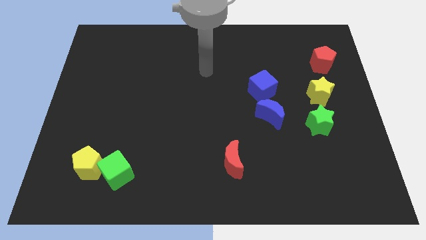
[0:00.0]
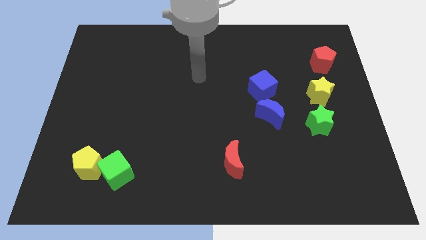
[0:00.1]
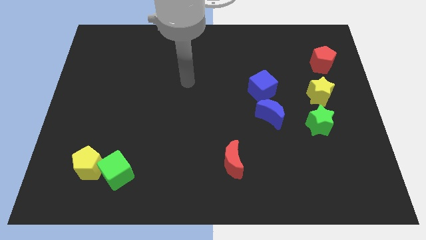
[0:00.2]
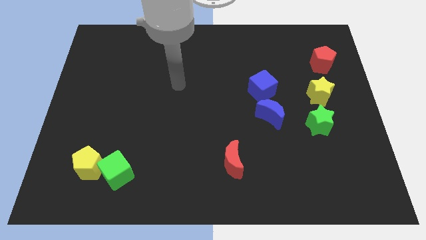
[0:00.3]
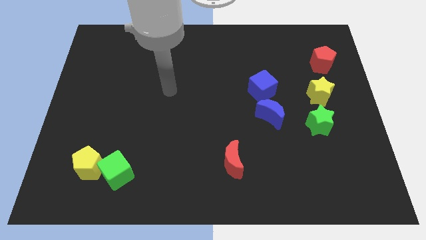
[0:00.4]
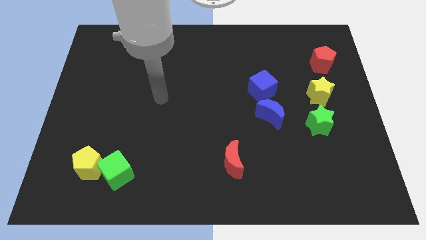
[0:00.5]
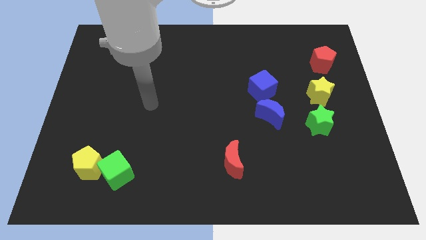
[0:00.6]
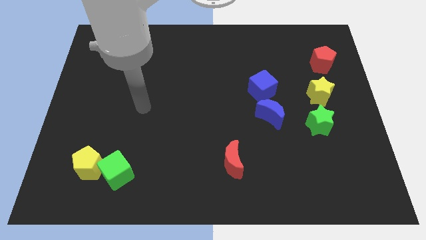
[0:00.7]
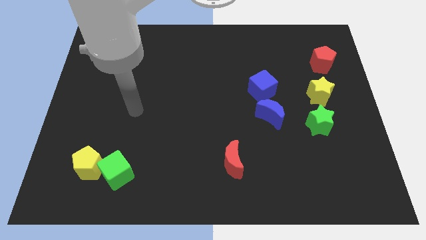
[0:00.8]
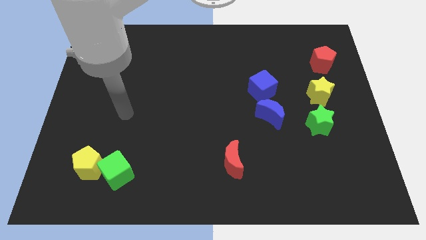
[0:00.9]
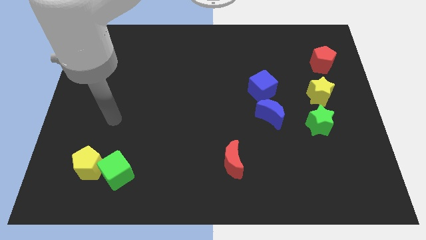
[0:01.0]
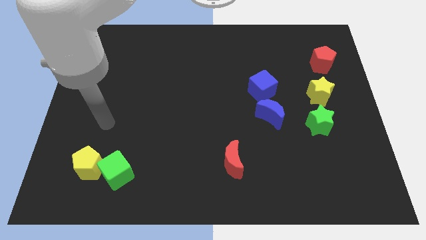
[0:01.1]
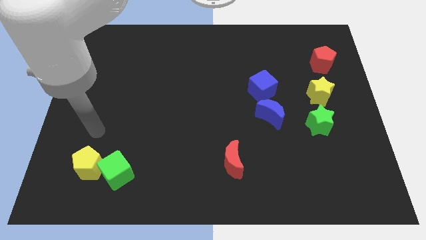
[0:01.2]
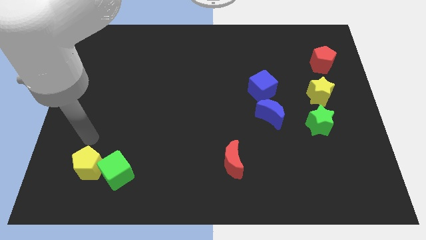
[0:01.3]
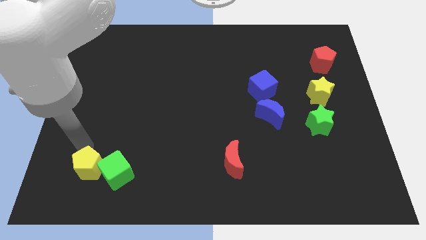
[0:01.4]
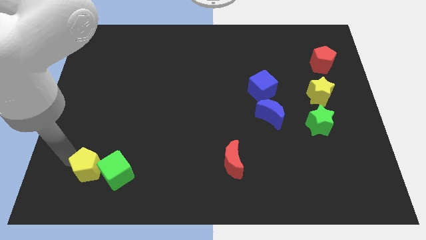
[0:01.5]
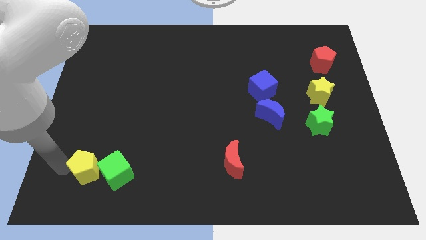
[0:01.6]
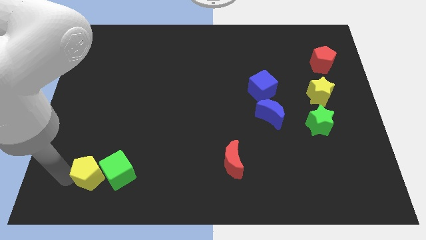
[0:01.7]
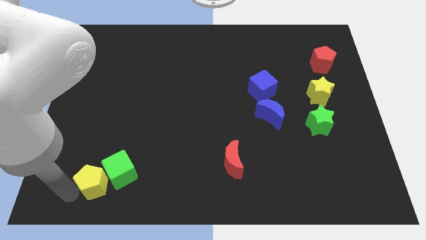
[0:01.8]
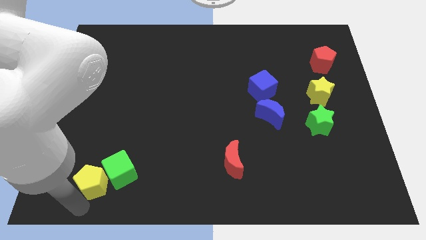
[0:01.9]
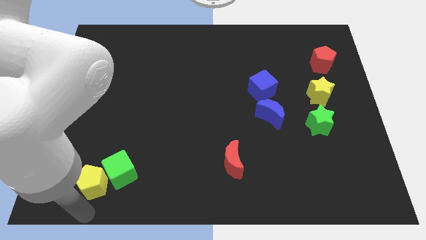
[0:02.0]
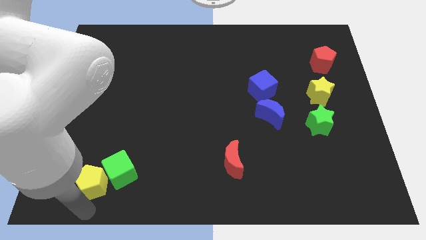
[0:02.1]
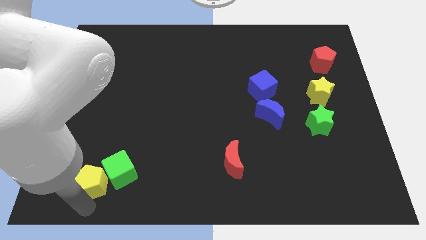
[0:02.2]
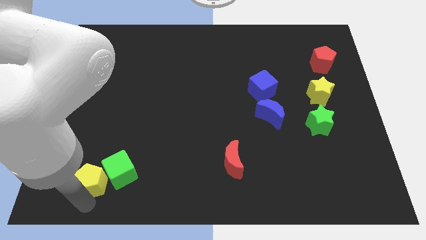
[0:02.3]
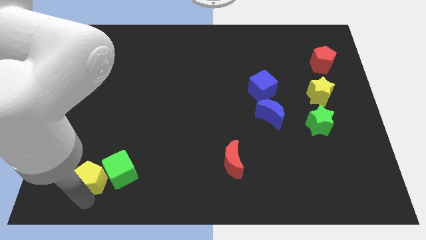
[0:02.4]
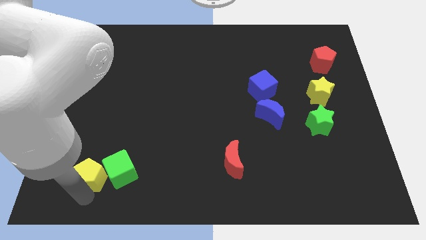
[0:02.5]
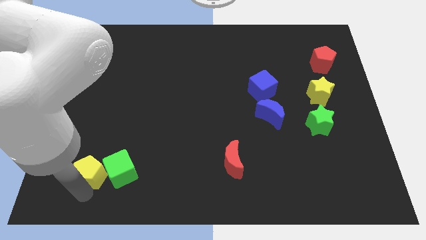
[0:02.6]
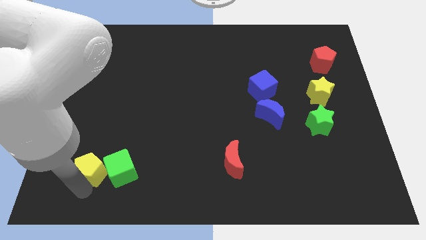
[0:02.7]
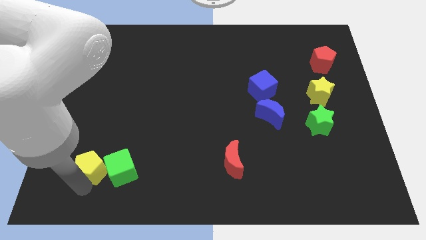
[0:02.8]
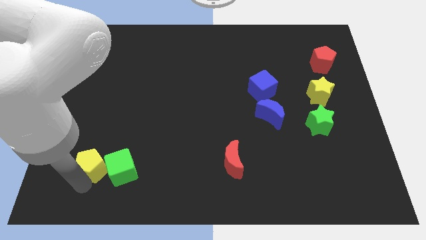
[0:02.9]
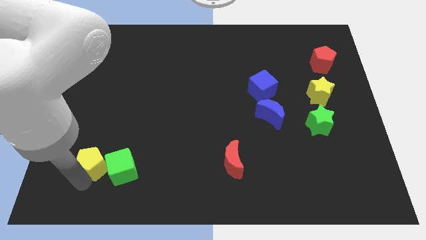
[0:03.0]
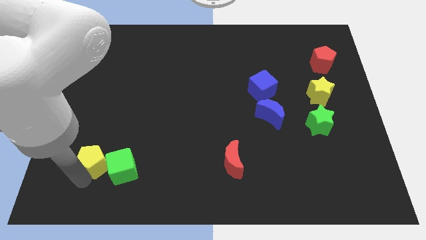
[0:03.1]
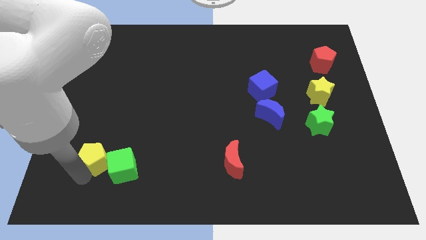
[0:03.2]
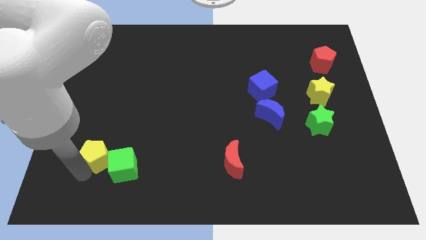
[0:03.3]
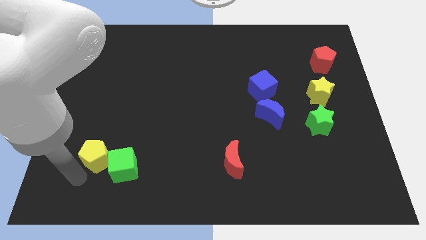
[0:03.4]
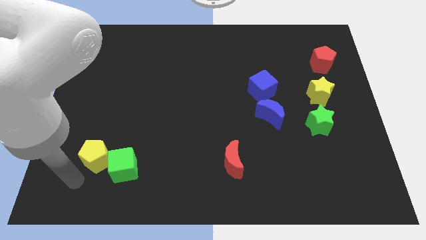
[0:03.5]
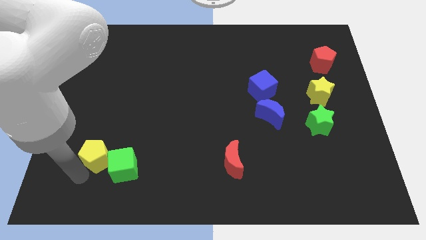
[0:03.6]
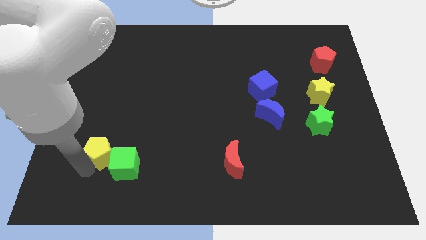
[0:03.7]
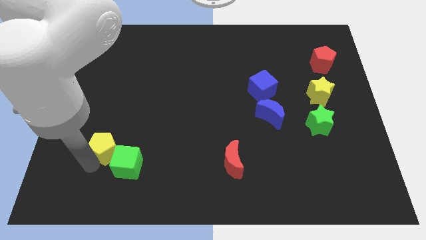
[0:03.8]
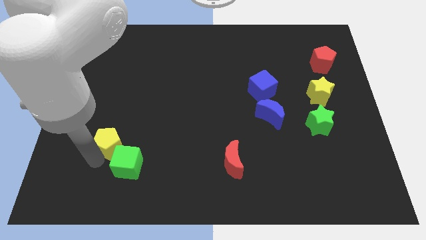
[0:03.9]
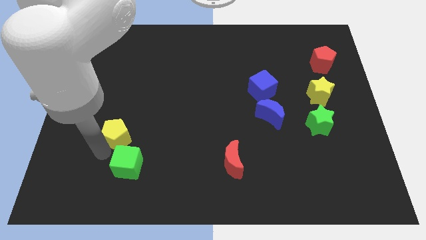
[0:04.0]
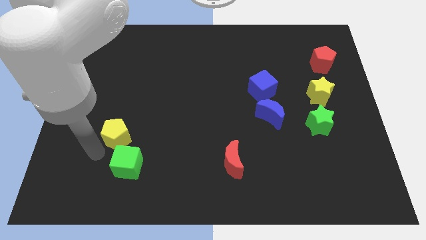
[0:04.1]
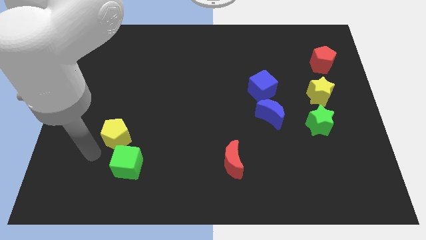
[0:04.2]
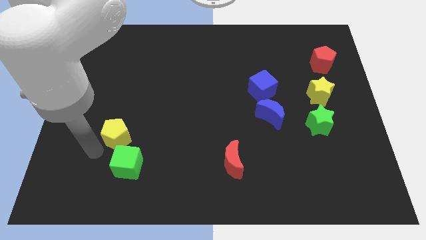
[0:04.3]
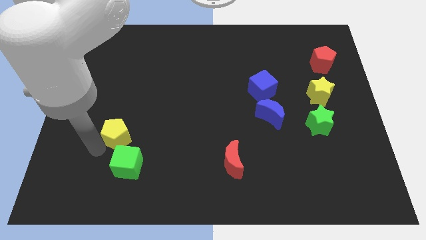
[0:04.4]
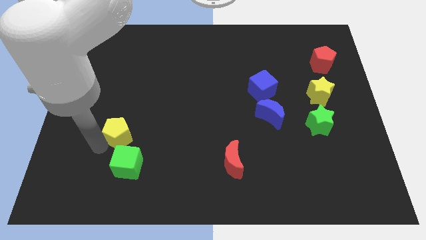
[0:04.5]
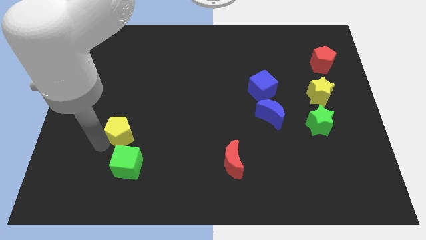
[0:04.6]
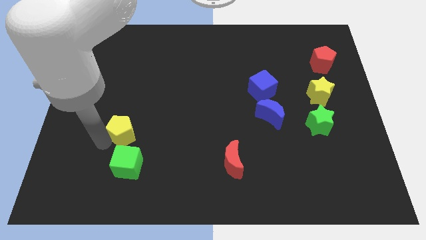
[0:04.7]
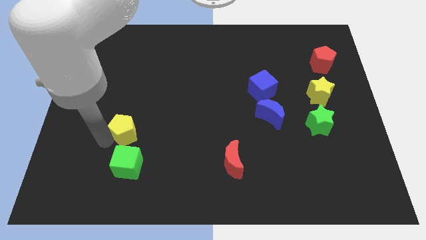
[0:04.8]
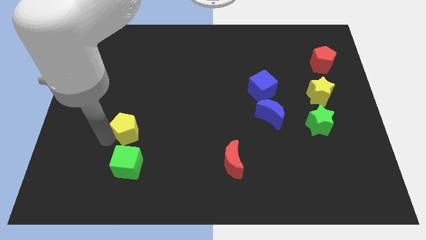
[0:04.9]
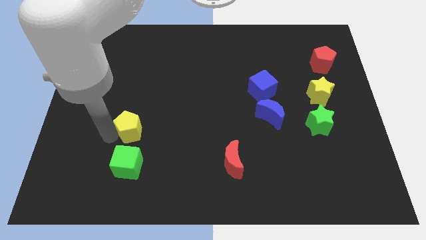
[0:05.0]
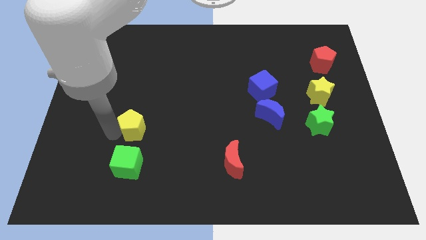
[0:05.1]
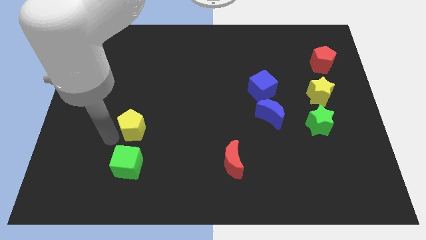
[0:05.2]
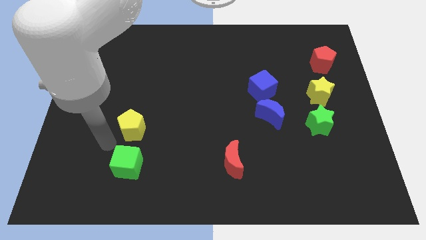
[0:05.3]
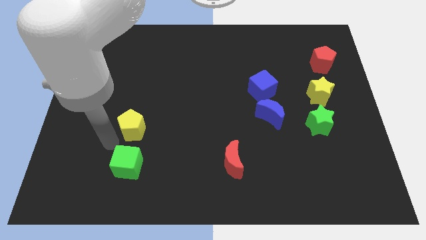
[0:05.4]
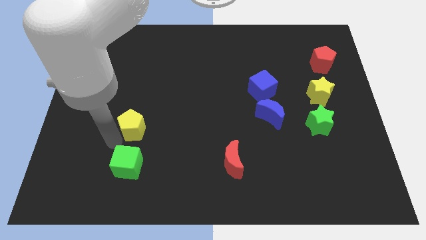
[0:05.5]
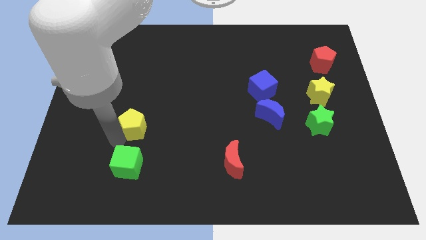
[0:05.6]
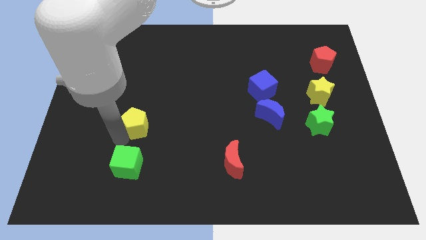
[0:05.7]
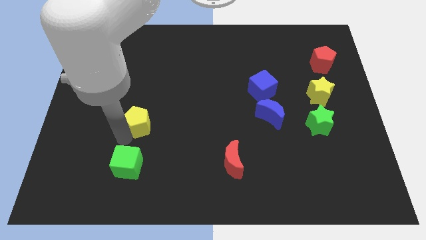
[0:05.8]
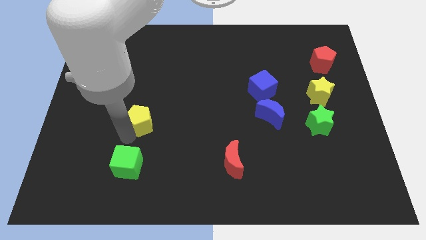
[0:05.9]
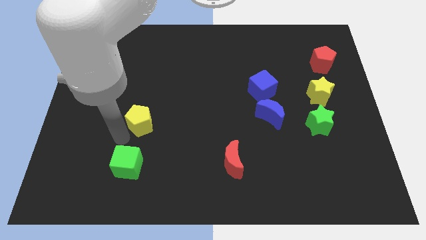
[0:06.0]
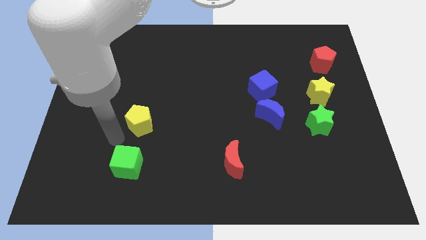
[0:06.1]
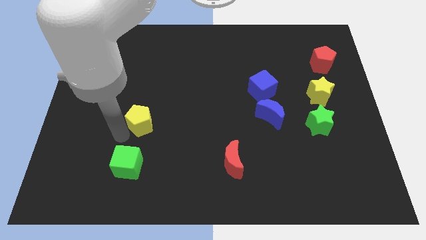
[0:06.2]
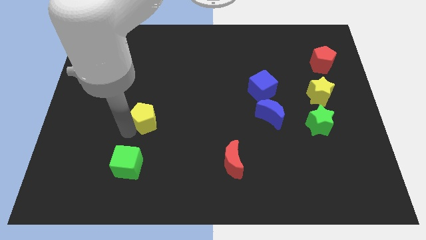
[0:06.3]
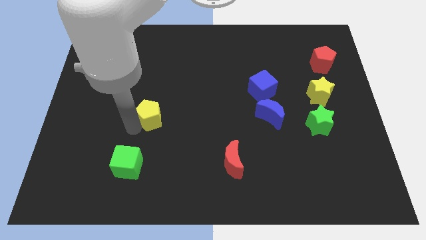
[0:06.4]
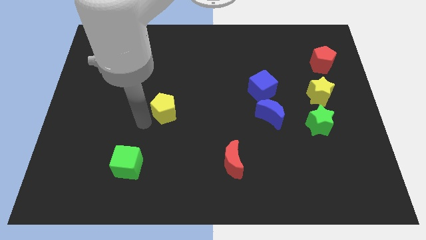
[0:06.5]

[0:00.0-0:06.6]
move the yellow pentagon upwards and right

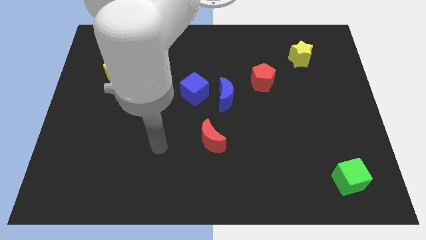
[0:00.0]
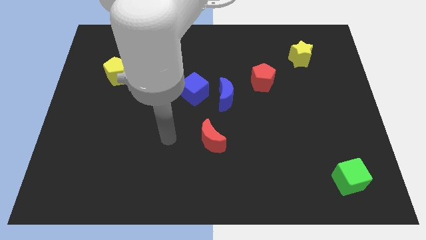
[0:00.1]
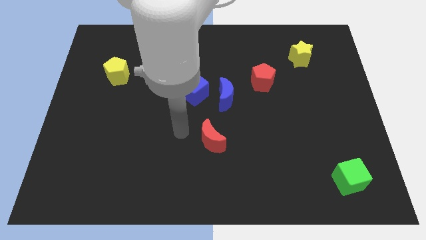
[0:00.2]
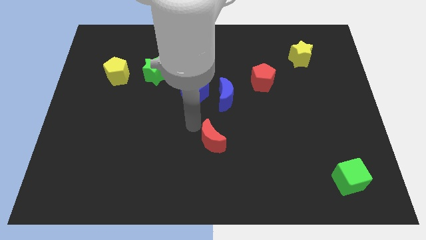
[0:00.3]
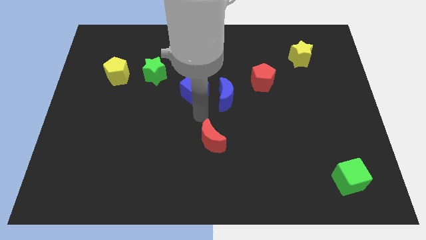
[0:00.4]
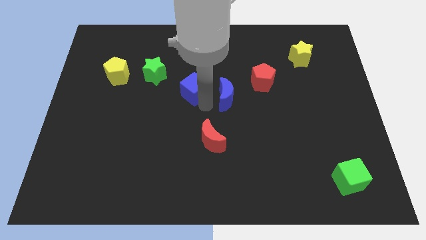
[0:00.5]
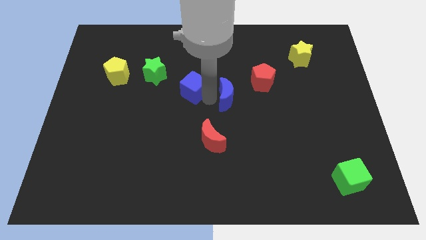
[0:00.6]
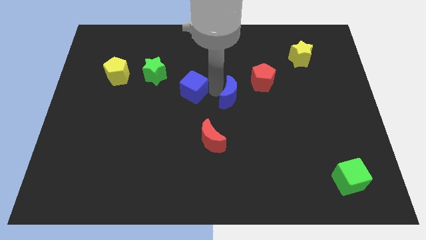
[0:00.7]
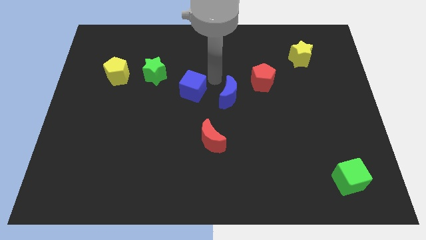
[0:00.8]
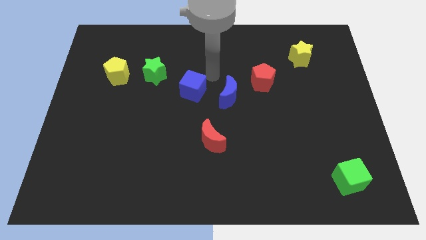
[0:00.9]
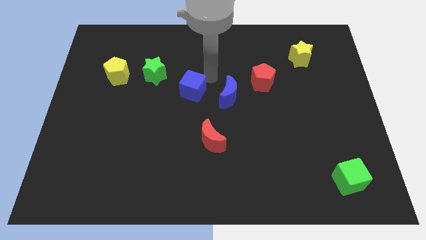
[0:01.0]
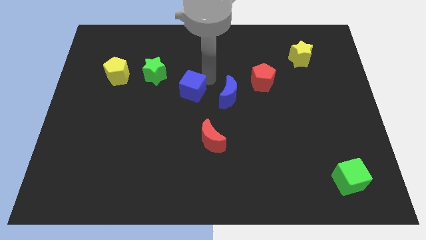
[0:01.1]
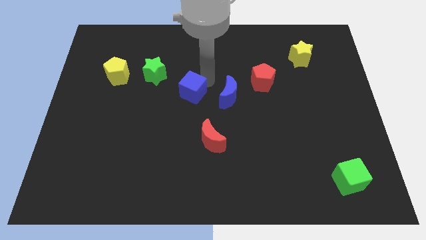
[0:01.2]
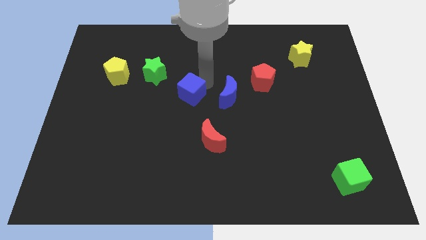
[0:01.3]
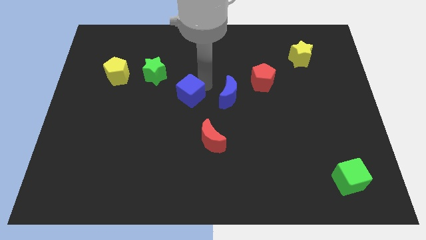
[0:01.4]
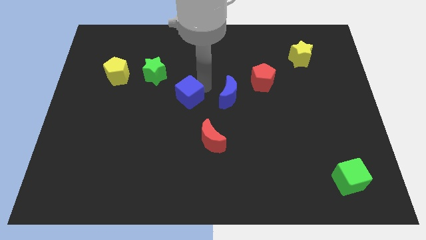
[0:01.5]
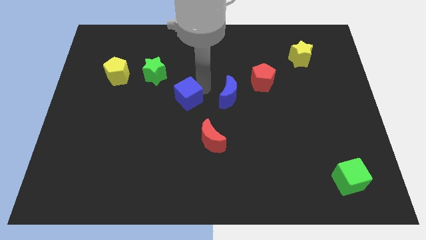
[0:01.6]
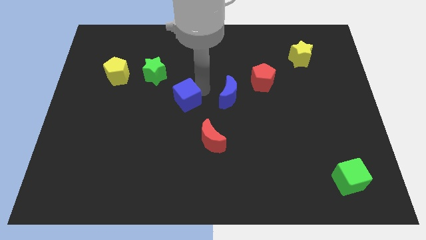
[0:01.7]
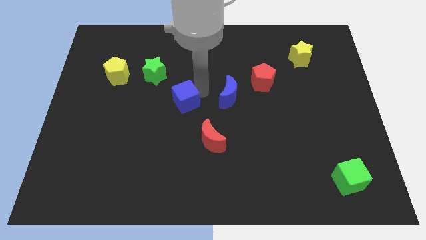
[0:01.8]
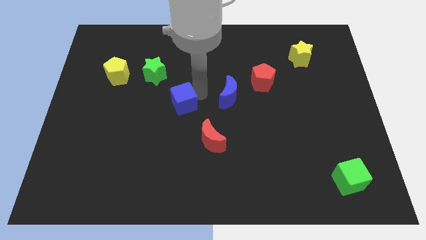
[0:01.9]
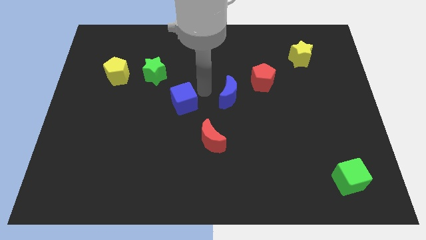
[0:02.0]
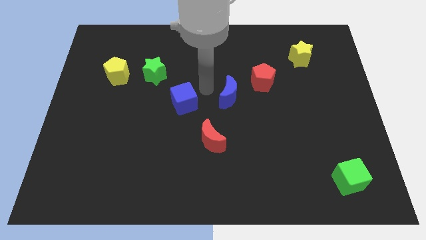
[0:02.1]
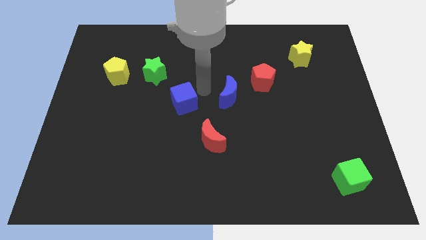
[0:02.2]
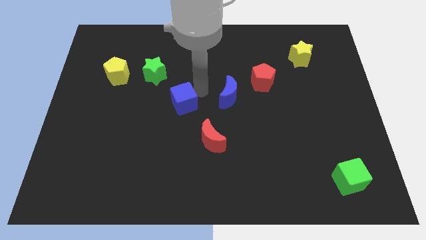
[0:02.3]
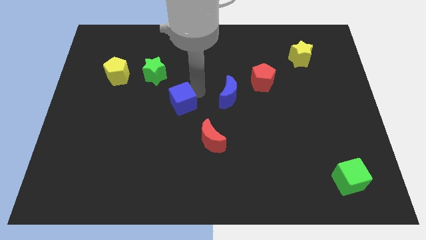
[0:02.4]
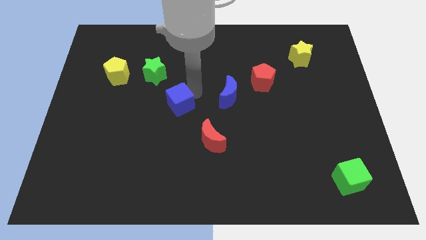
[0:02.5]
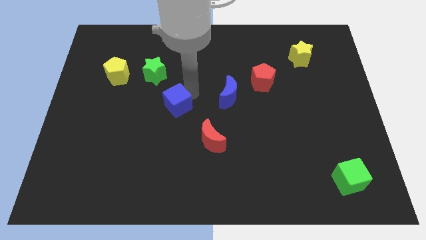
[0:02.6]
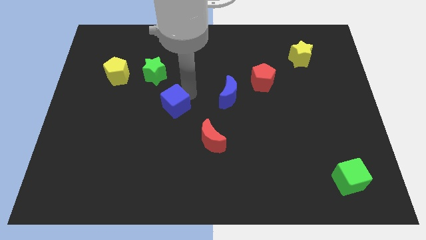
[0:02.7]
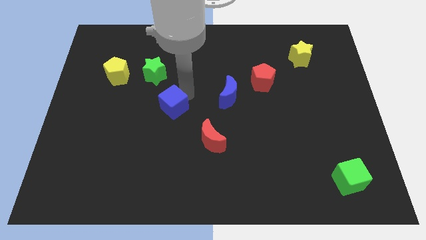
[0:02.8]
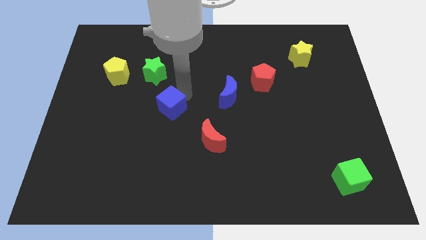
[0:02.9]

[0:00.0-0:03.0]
slide the blue cube diagonally down and left a little
